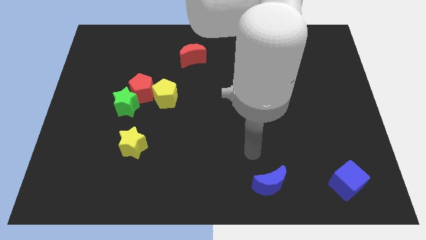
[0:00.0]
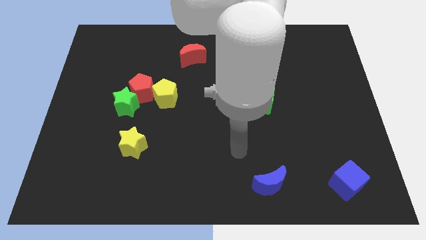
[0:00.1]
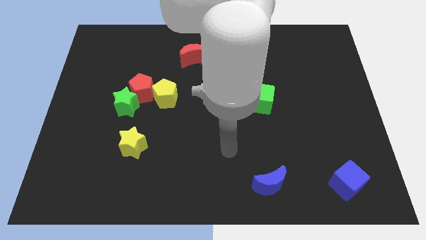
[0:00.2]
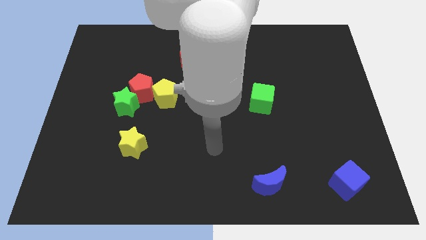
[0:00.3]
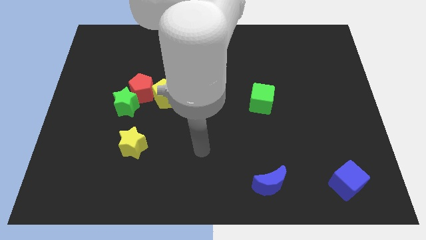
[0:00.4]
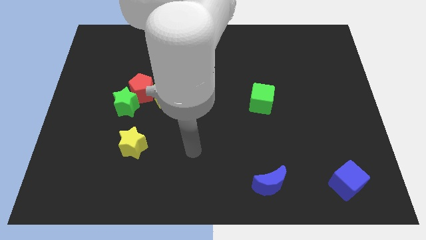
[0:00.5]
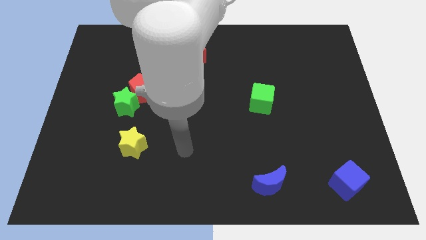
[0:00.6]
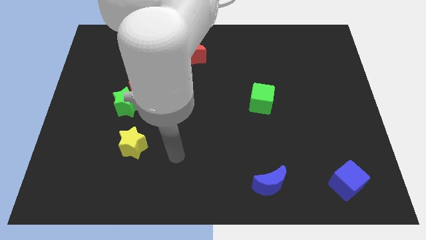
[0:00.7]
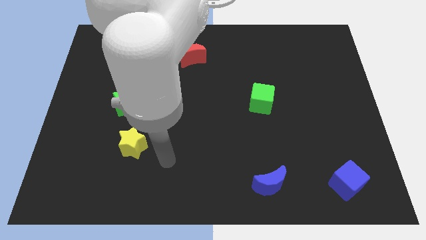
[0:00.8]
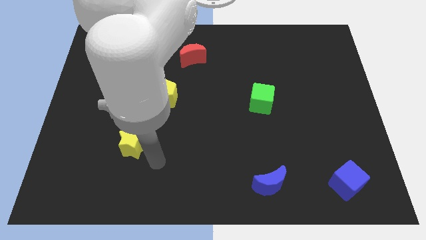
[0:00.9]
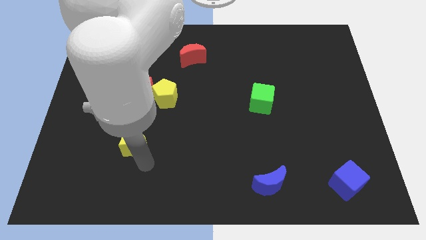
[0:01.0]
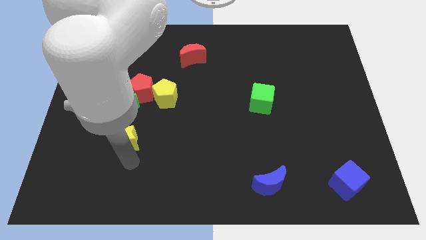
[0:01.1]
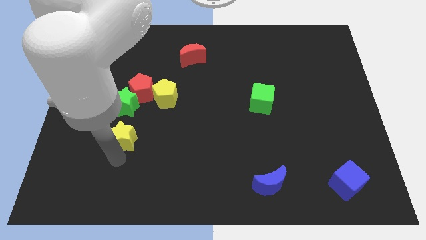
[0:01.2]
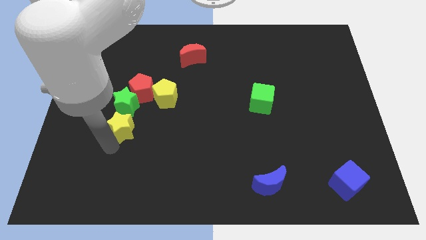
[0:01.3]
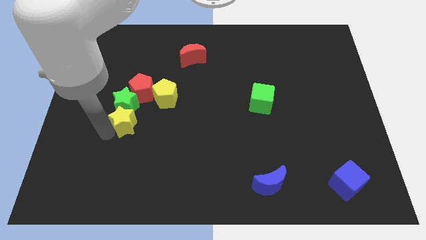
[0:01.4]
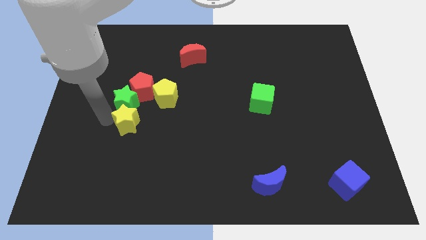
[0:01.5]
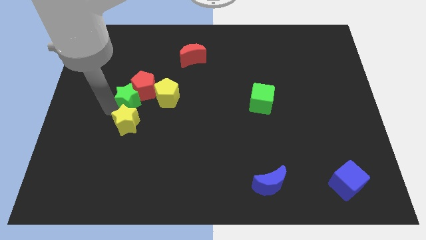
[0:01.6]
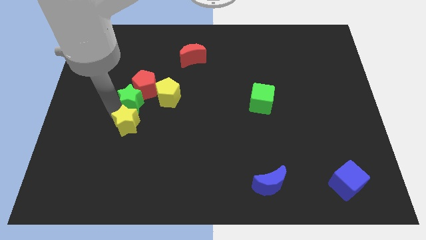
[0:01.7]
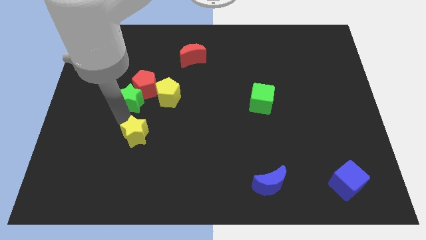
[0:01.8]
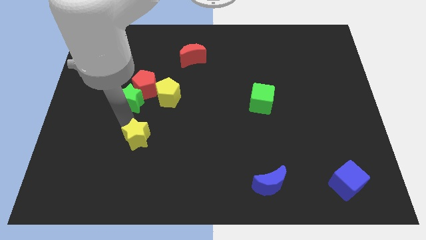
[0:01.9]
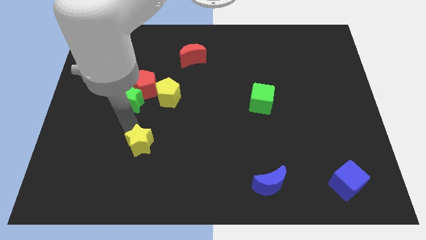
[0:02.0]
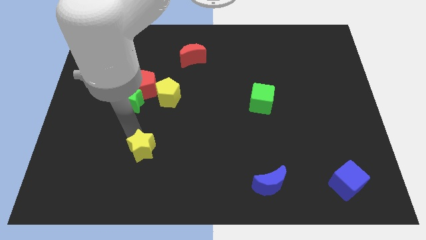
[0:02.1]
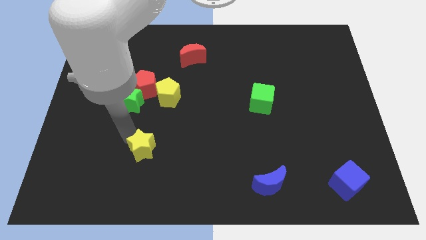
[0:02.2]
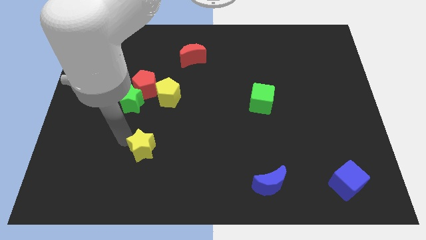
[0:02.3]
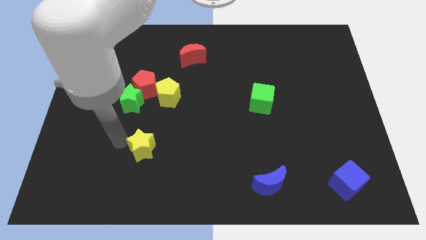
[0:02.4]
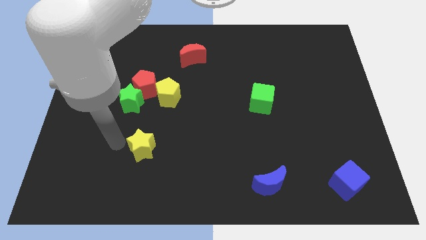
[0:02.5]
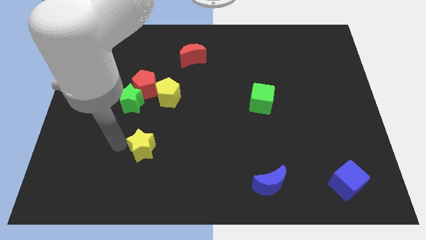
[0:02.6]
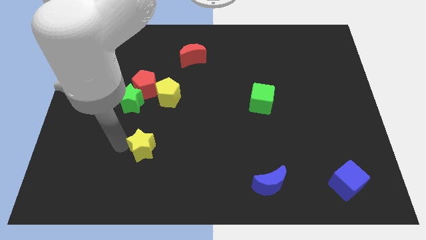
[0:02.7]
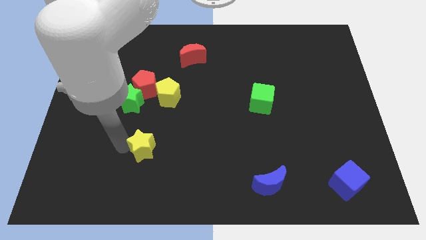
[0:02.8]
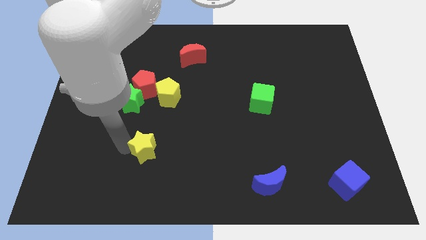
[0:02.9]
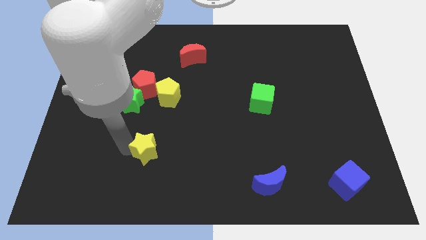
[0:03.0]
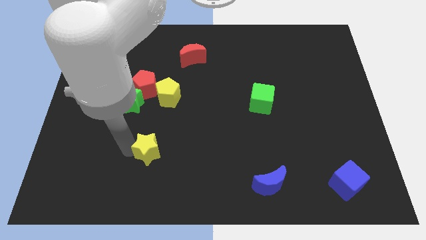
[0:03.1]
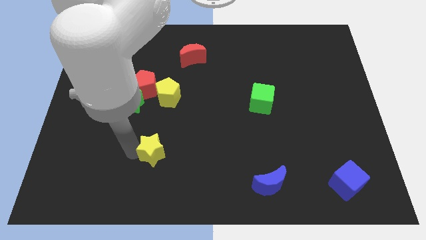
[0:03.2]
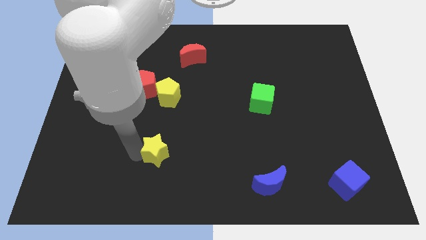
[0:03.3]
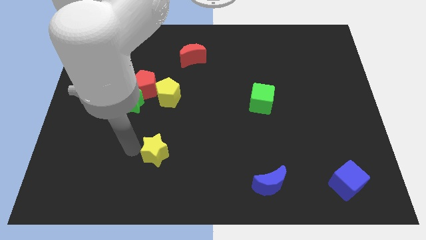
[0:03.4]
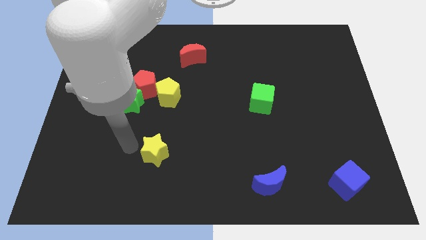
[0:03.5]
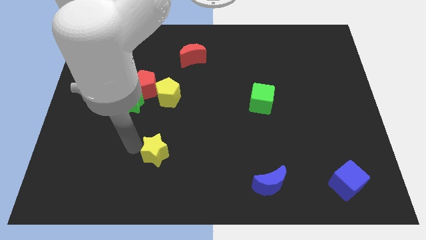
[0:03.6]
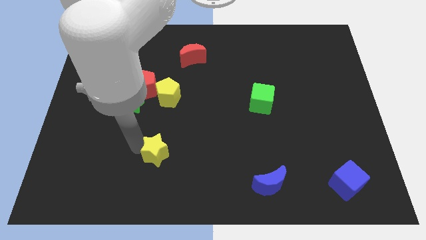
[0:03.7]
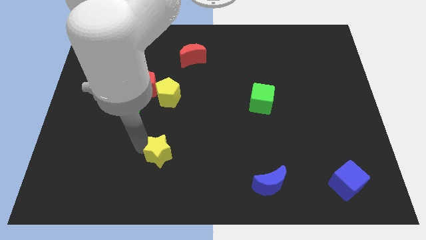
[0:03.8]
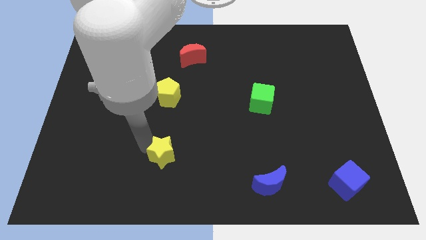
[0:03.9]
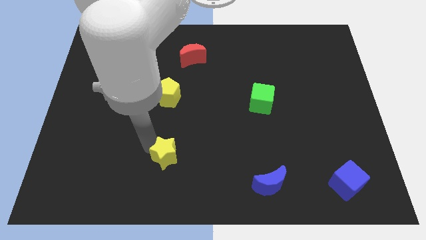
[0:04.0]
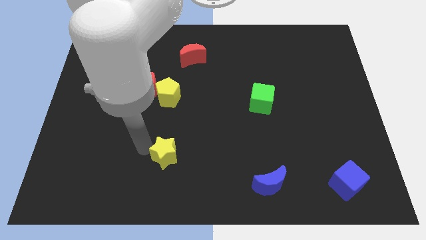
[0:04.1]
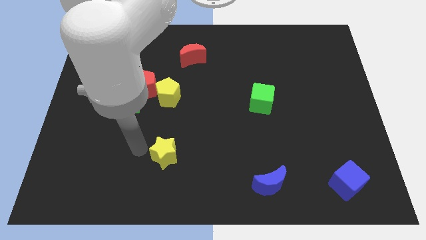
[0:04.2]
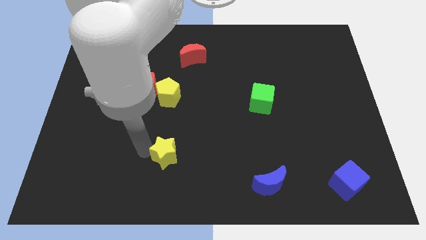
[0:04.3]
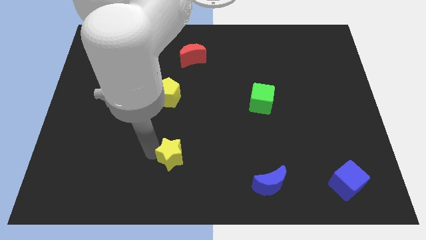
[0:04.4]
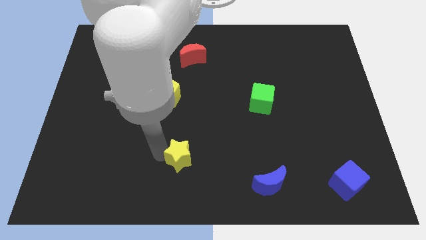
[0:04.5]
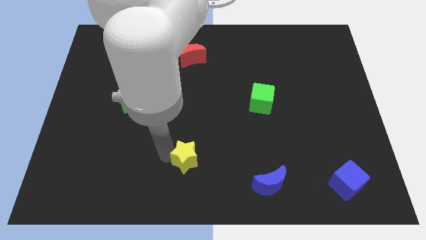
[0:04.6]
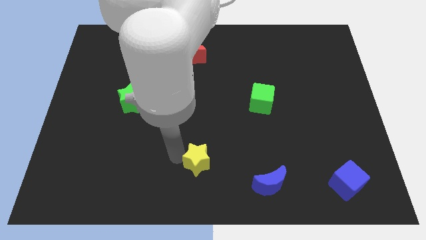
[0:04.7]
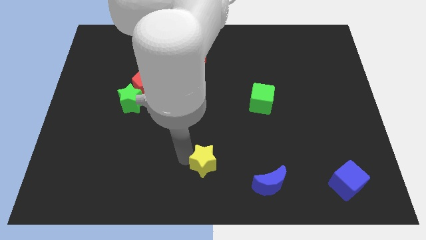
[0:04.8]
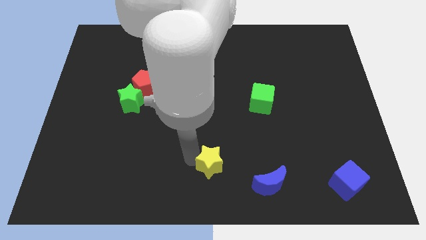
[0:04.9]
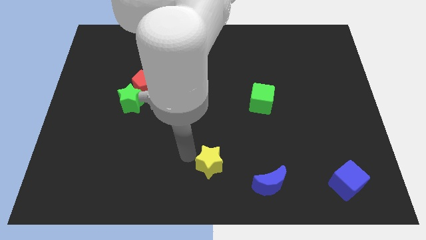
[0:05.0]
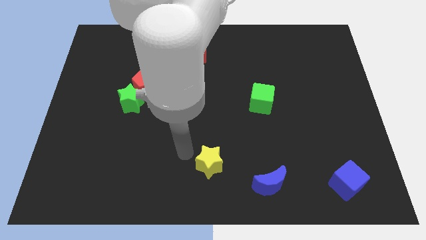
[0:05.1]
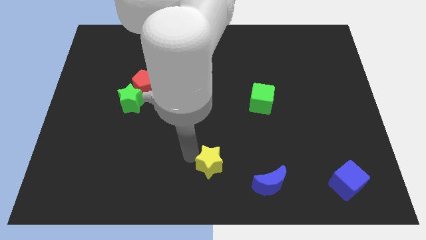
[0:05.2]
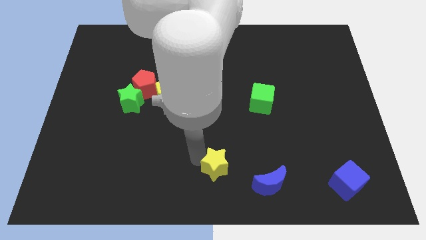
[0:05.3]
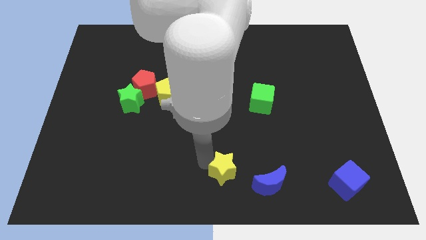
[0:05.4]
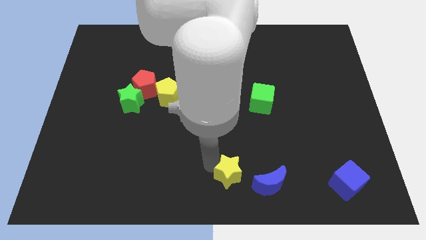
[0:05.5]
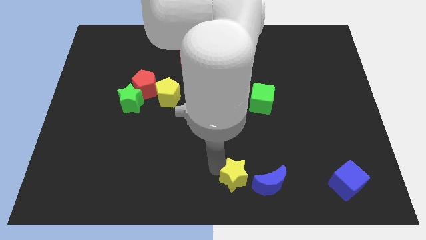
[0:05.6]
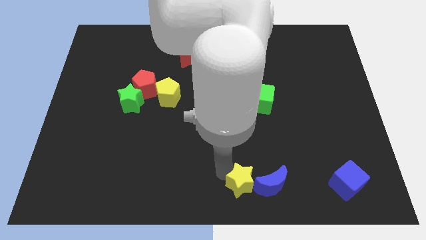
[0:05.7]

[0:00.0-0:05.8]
move the yellow star close to the blue moon

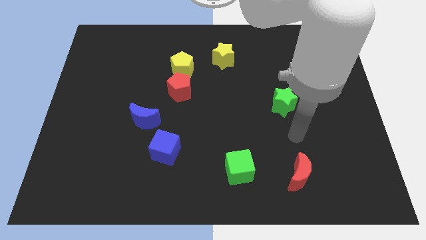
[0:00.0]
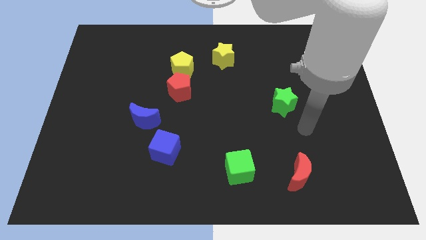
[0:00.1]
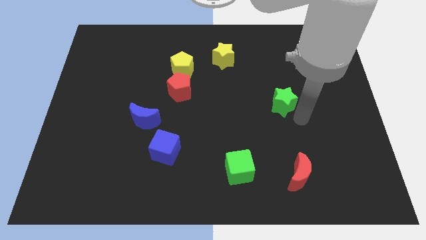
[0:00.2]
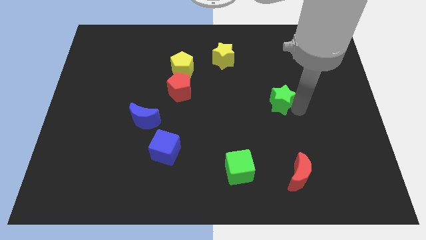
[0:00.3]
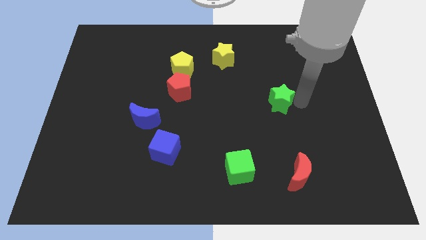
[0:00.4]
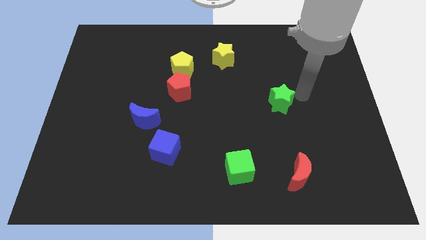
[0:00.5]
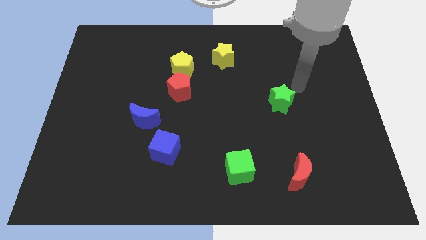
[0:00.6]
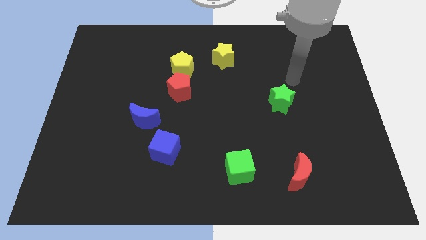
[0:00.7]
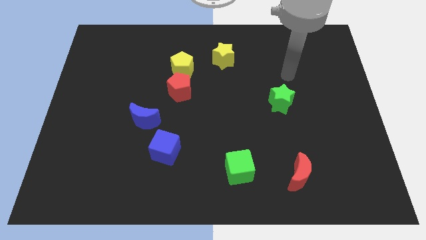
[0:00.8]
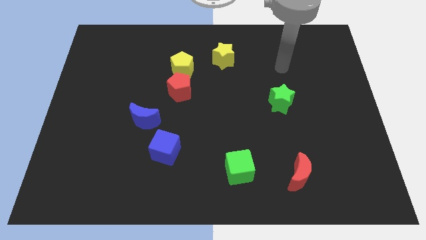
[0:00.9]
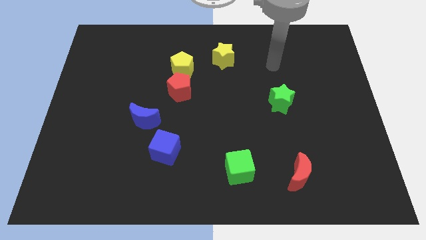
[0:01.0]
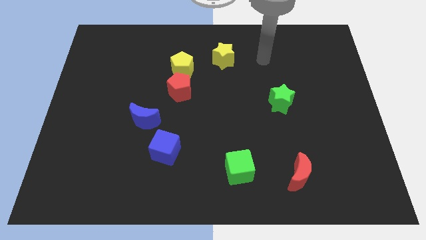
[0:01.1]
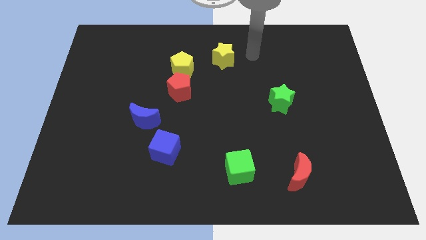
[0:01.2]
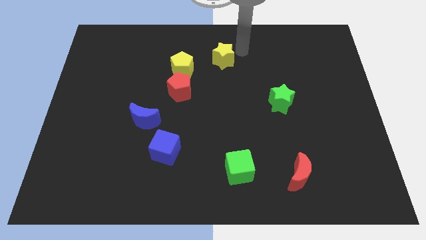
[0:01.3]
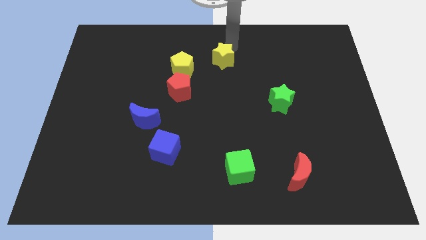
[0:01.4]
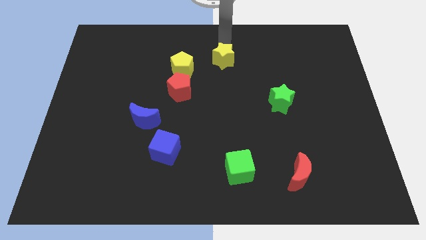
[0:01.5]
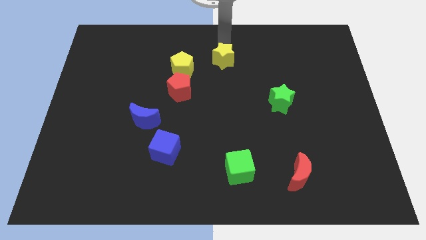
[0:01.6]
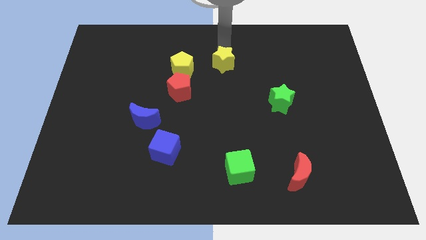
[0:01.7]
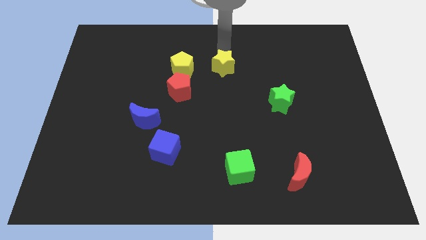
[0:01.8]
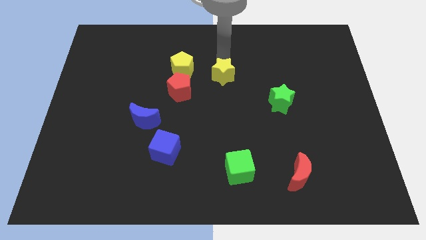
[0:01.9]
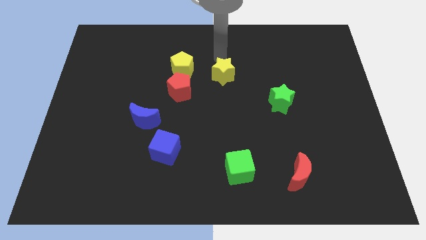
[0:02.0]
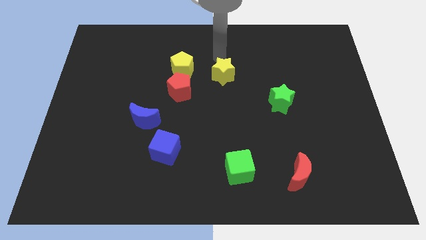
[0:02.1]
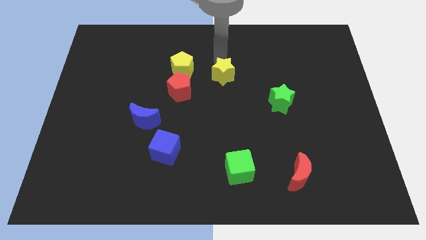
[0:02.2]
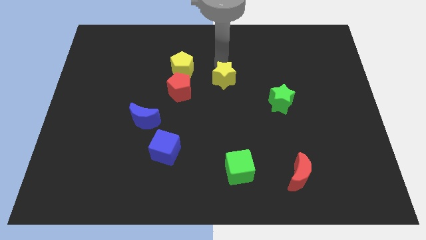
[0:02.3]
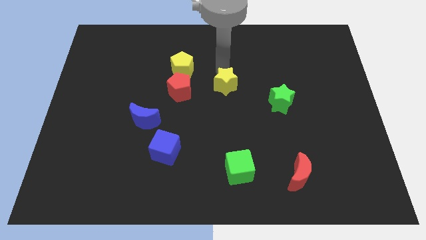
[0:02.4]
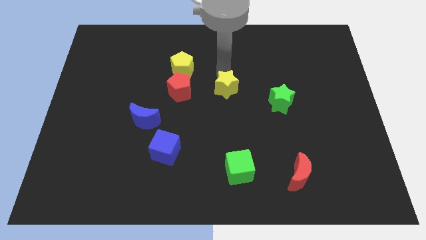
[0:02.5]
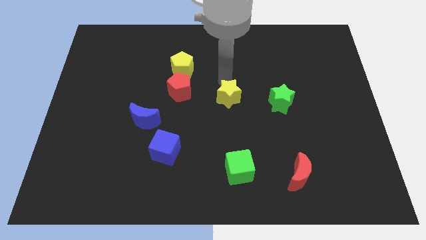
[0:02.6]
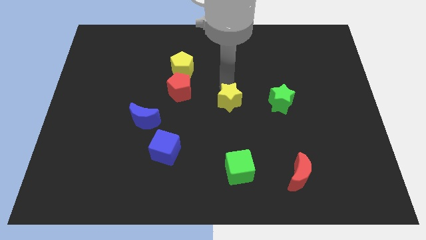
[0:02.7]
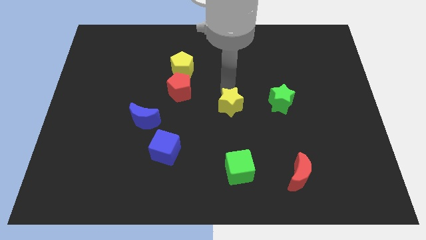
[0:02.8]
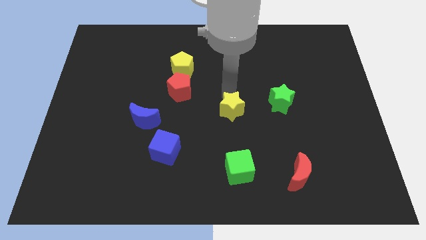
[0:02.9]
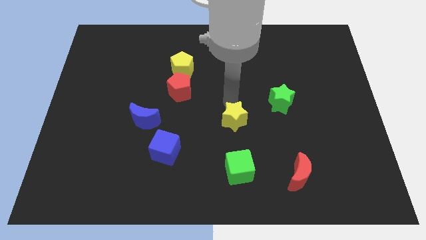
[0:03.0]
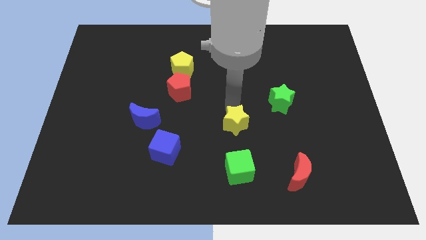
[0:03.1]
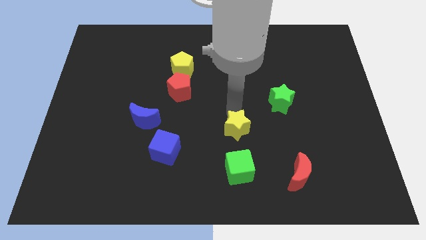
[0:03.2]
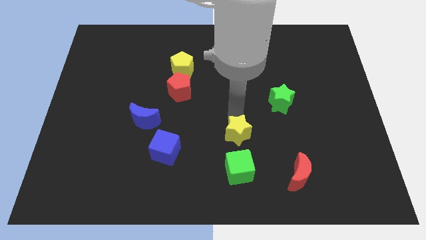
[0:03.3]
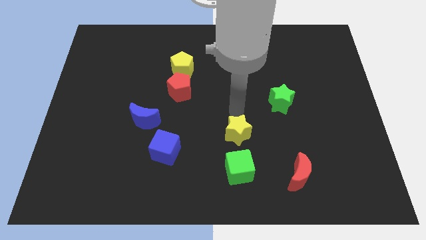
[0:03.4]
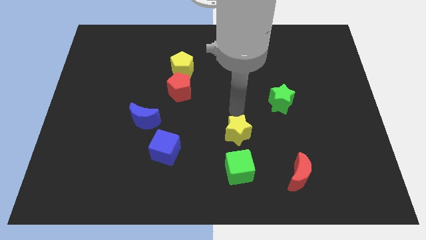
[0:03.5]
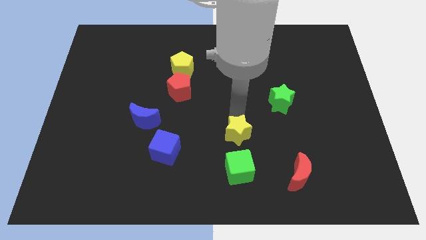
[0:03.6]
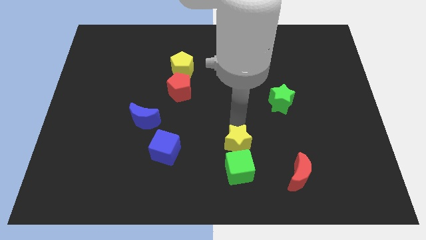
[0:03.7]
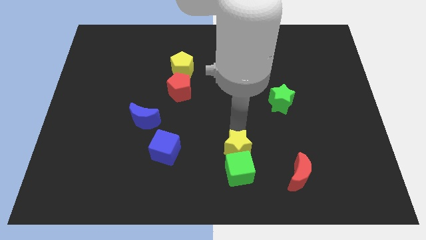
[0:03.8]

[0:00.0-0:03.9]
put the yellow star to the green cube
